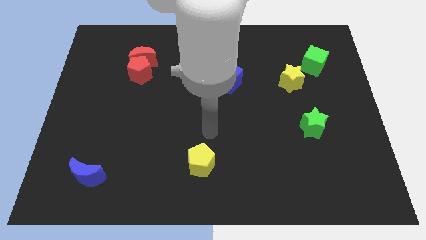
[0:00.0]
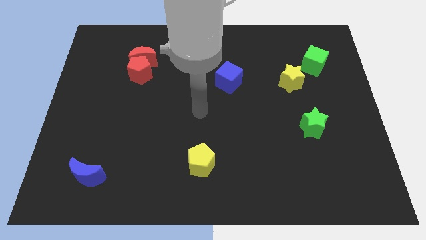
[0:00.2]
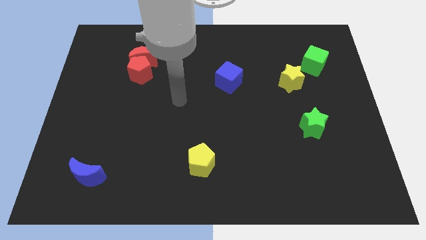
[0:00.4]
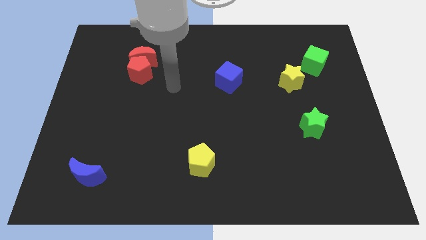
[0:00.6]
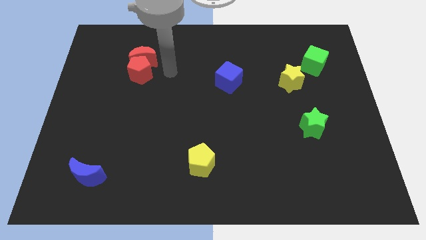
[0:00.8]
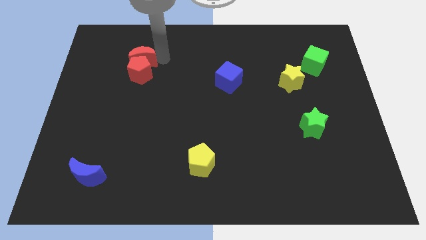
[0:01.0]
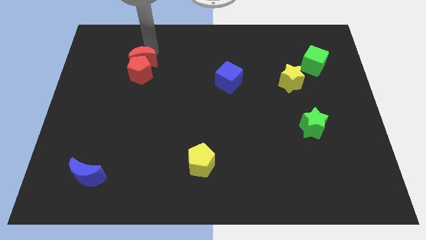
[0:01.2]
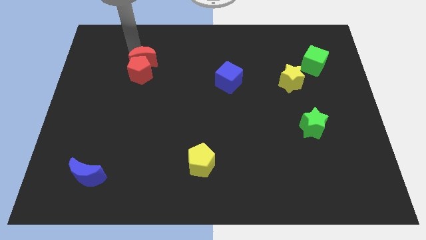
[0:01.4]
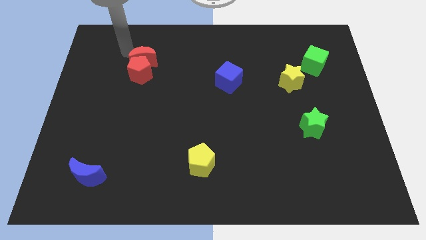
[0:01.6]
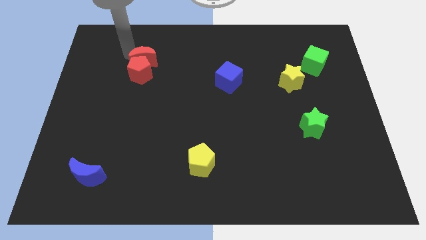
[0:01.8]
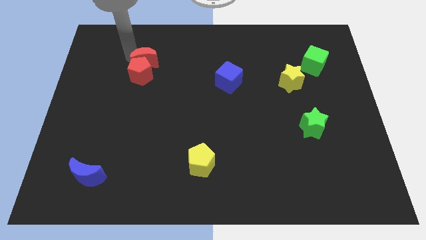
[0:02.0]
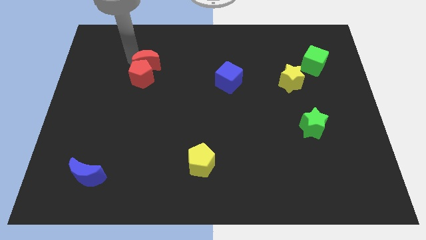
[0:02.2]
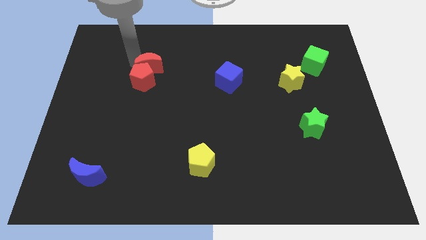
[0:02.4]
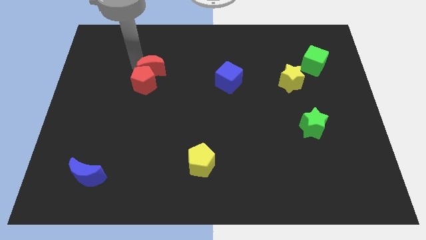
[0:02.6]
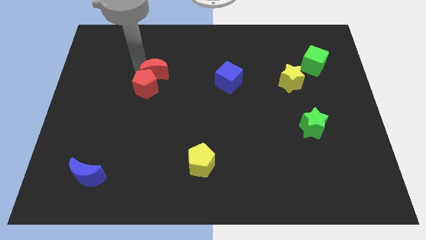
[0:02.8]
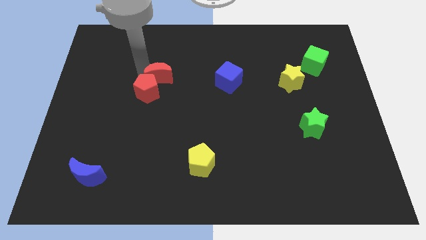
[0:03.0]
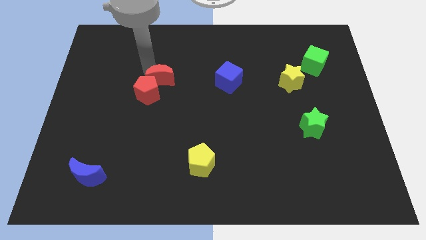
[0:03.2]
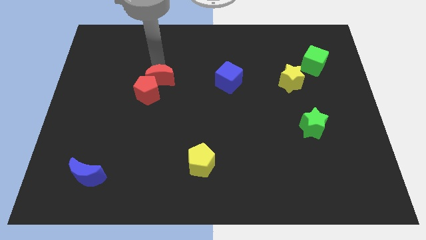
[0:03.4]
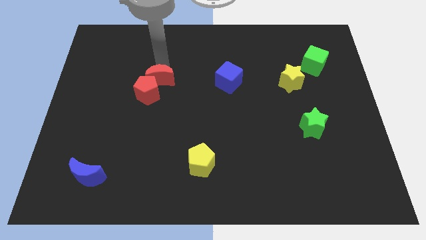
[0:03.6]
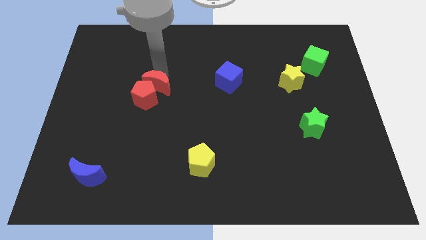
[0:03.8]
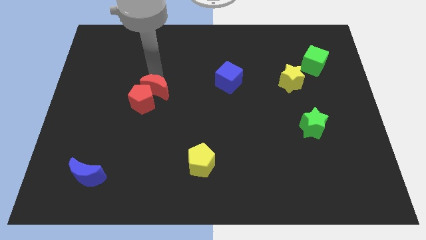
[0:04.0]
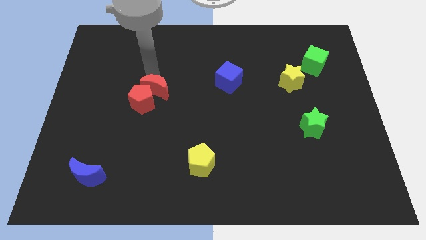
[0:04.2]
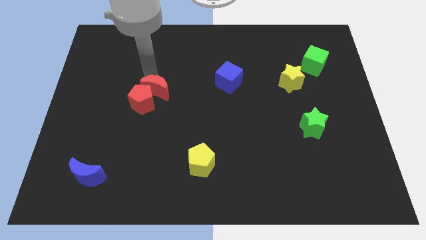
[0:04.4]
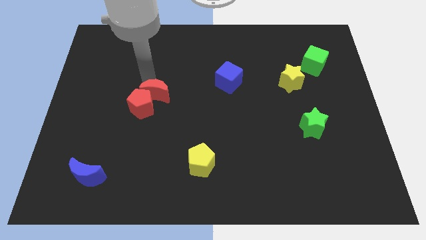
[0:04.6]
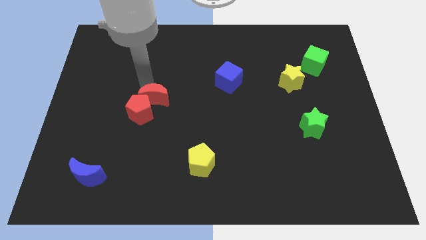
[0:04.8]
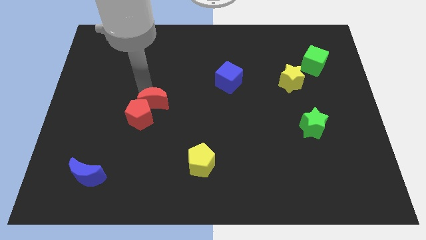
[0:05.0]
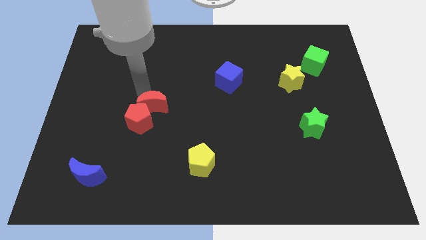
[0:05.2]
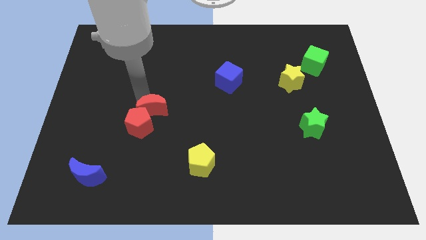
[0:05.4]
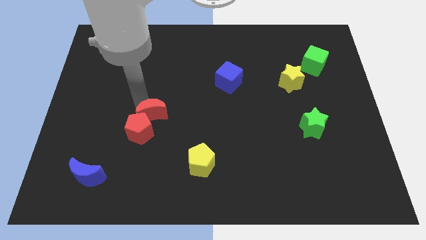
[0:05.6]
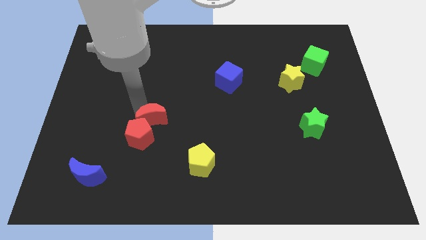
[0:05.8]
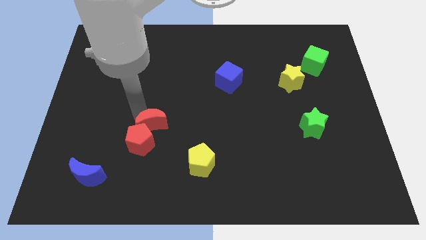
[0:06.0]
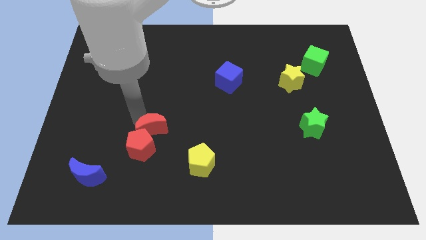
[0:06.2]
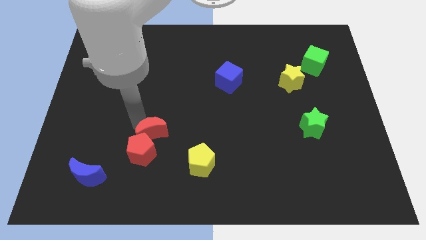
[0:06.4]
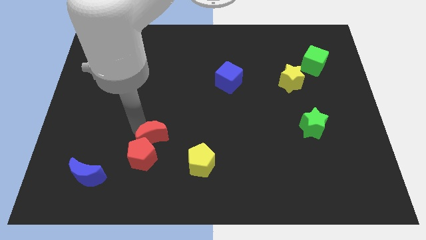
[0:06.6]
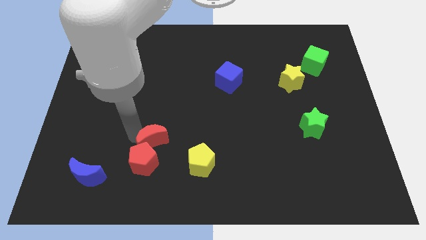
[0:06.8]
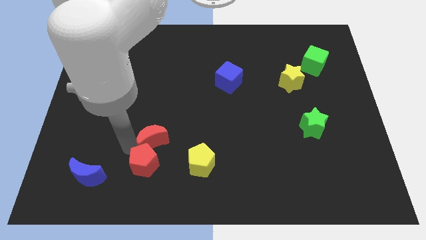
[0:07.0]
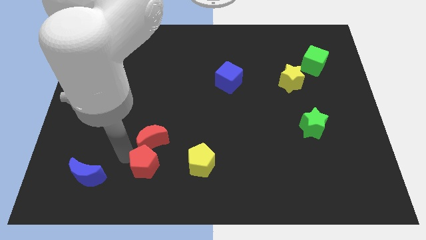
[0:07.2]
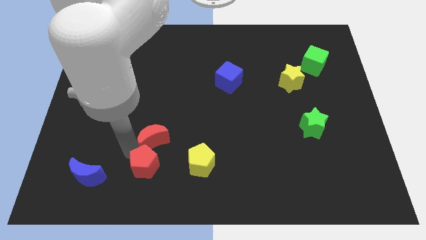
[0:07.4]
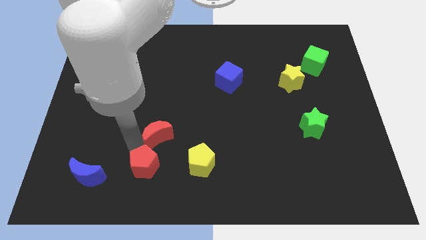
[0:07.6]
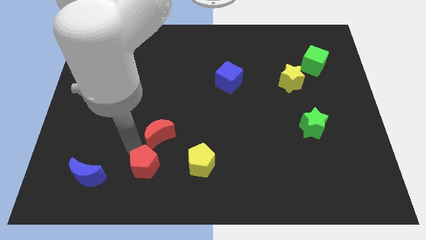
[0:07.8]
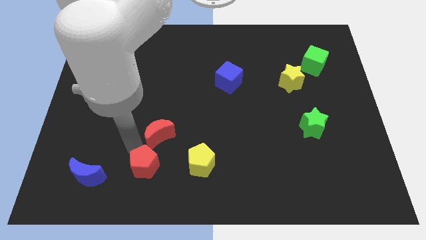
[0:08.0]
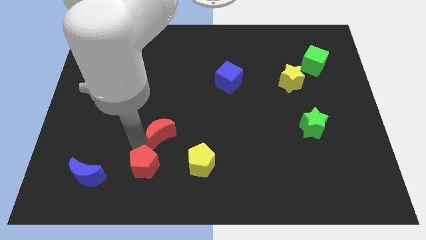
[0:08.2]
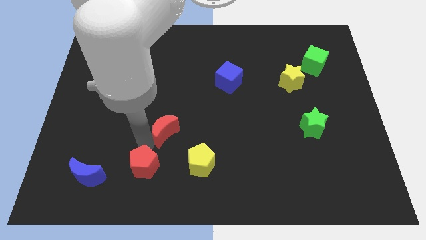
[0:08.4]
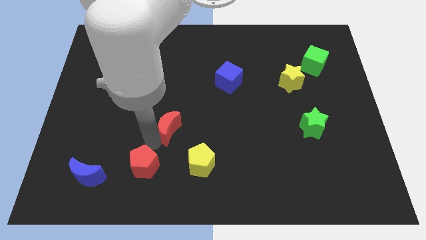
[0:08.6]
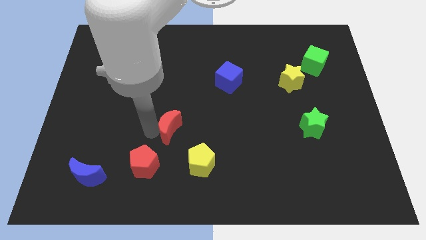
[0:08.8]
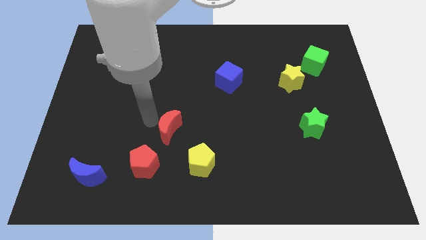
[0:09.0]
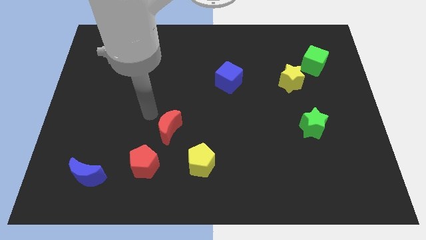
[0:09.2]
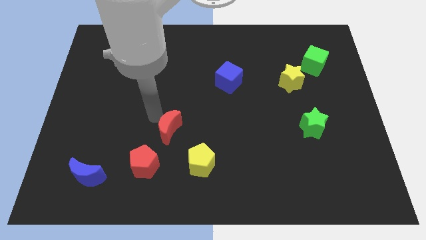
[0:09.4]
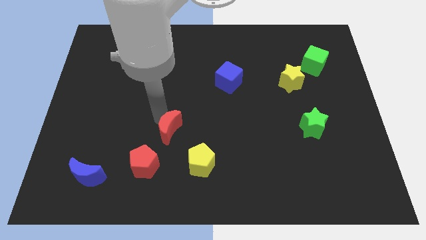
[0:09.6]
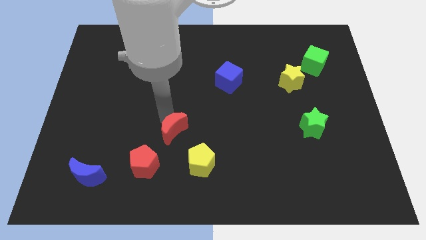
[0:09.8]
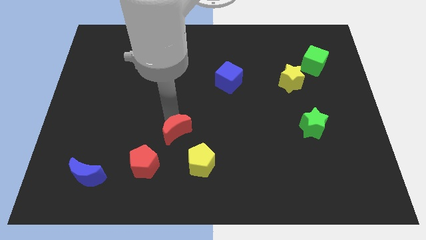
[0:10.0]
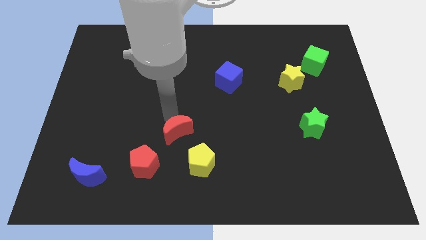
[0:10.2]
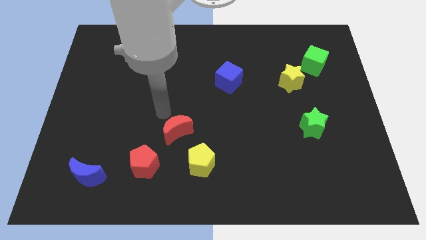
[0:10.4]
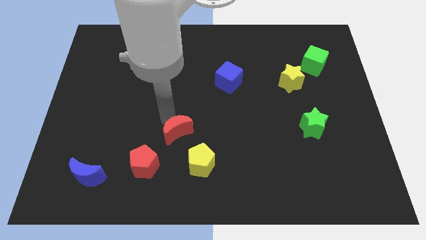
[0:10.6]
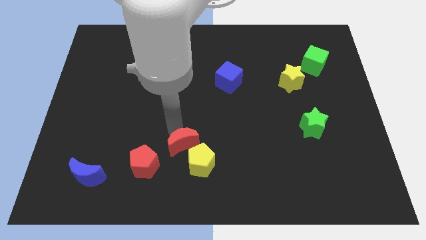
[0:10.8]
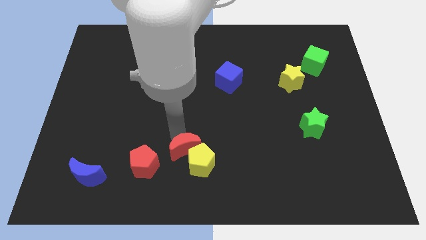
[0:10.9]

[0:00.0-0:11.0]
slide the red moon to the yellow pentagon

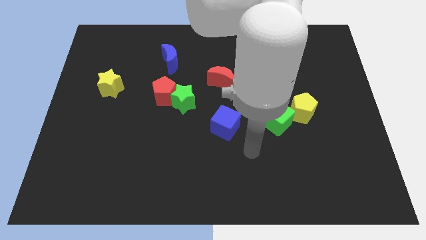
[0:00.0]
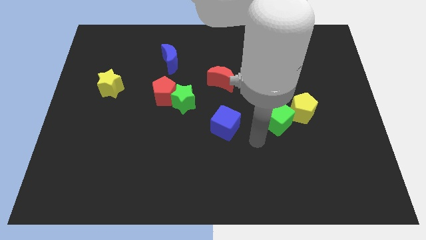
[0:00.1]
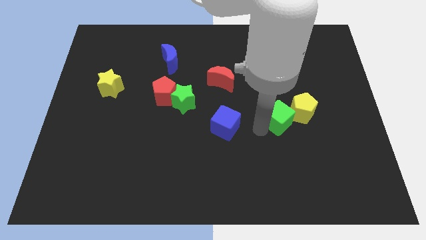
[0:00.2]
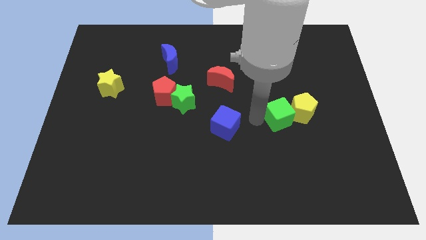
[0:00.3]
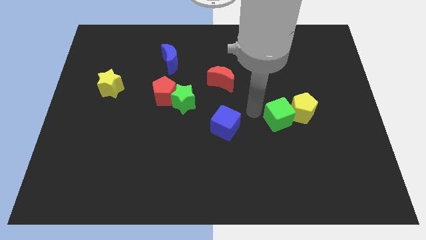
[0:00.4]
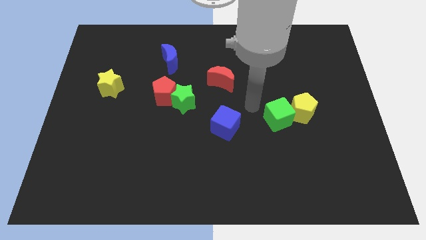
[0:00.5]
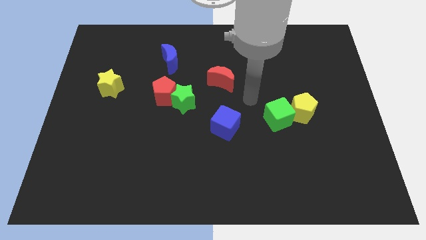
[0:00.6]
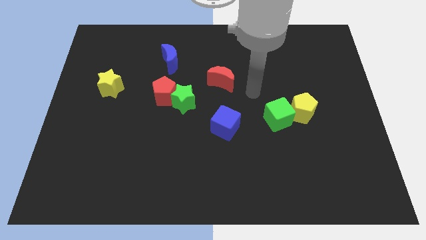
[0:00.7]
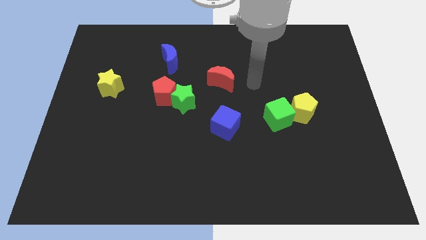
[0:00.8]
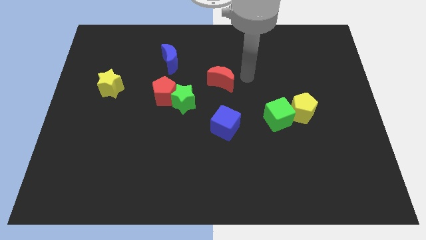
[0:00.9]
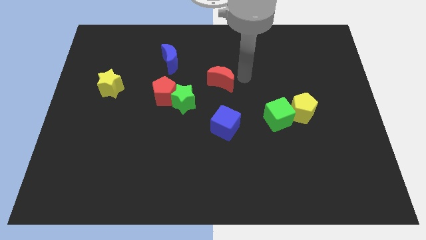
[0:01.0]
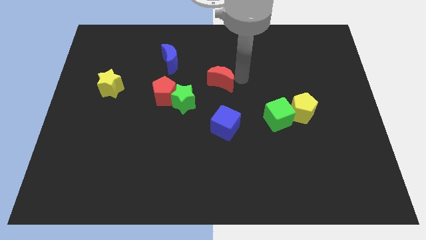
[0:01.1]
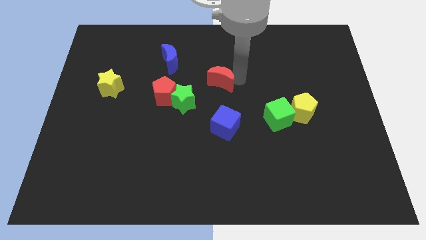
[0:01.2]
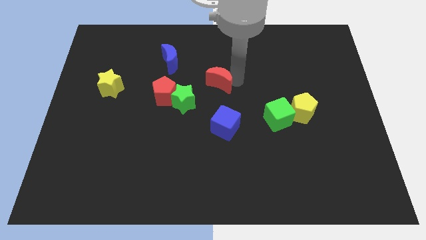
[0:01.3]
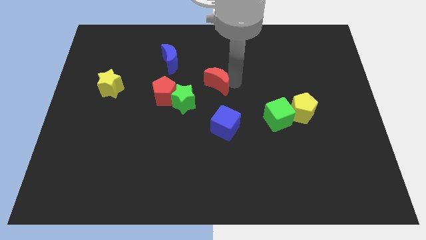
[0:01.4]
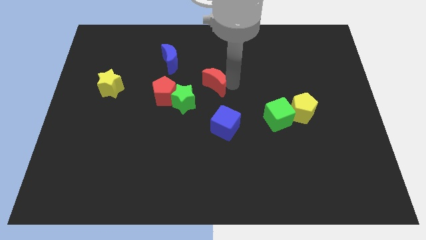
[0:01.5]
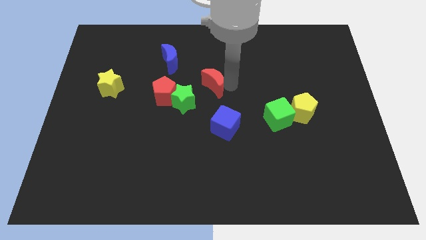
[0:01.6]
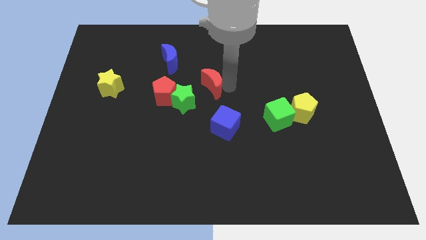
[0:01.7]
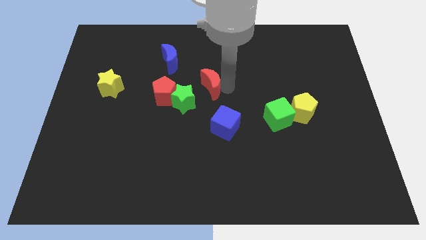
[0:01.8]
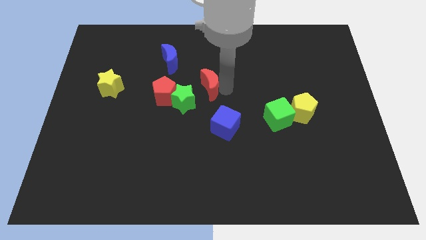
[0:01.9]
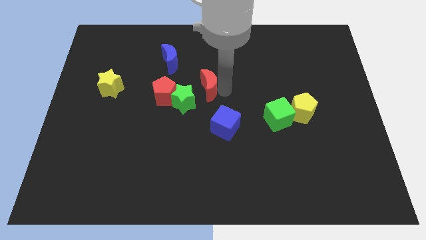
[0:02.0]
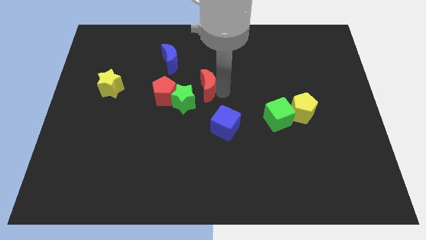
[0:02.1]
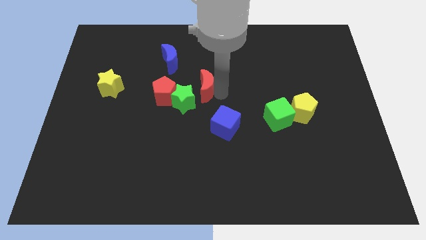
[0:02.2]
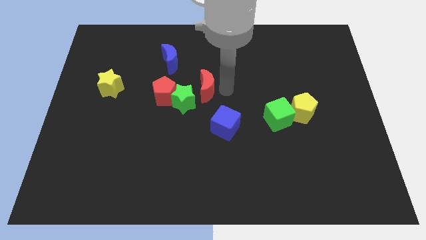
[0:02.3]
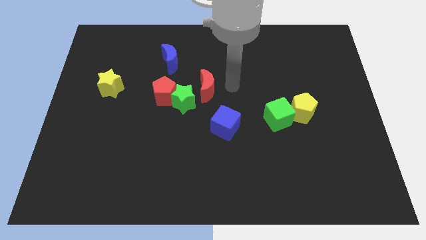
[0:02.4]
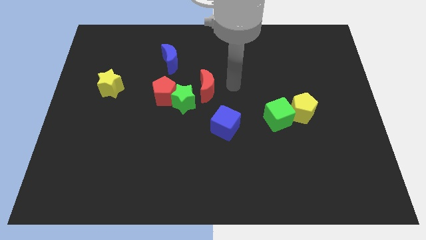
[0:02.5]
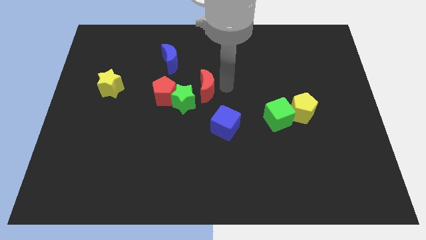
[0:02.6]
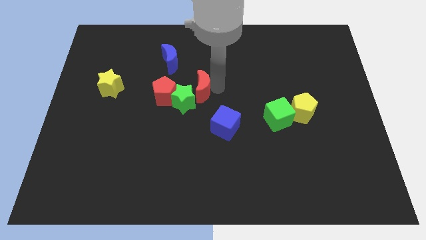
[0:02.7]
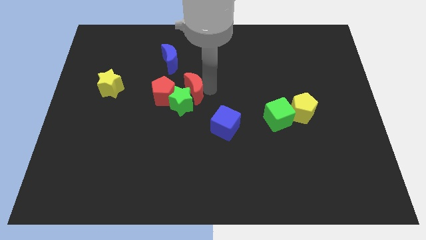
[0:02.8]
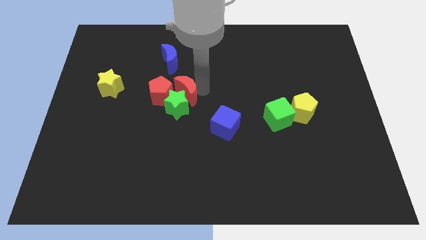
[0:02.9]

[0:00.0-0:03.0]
push the red moon close to the red pentagon
